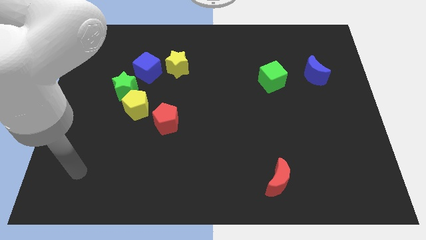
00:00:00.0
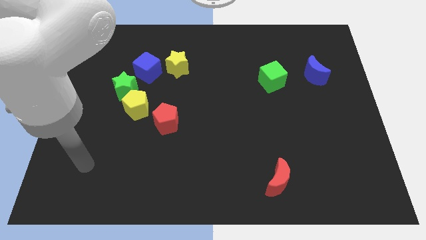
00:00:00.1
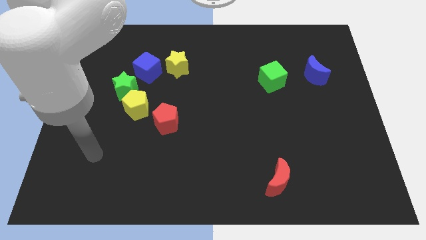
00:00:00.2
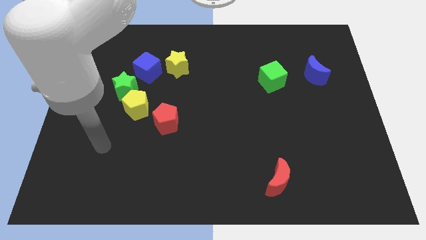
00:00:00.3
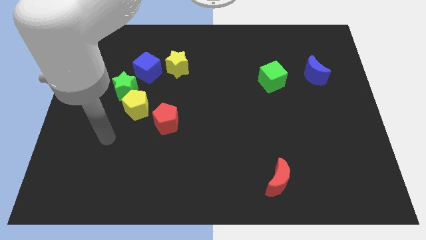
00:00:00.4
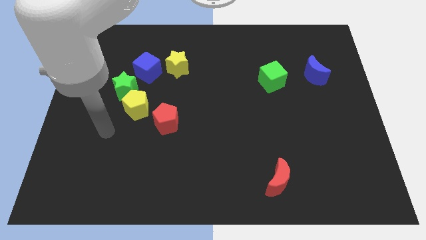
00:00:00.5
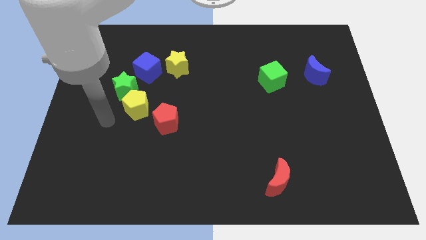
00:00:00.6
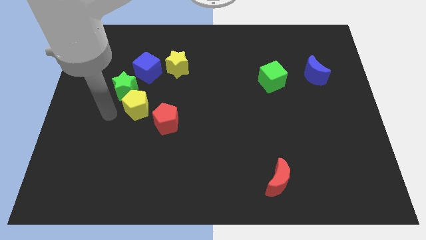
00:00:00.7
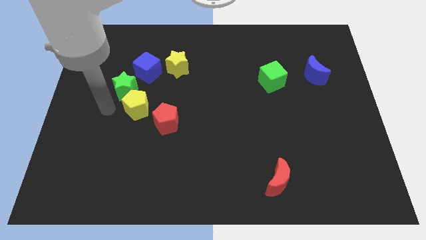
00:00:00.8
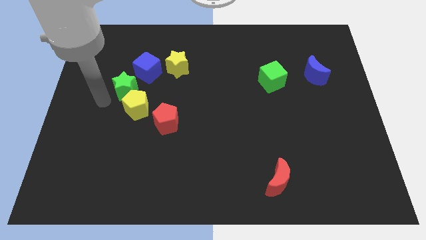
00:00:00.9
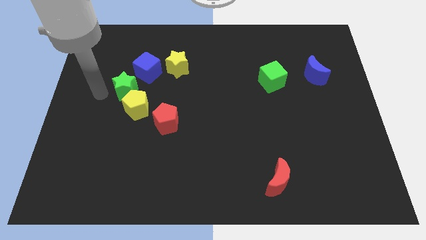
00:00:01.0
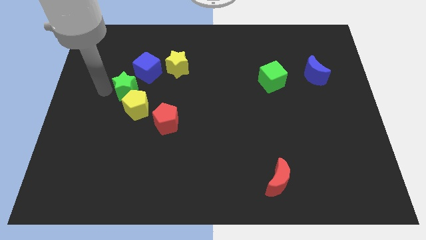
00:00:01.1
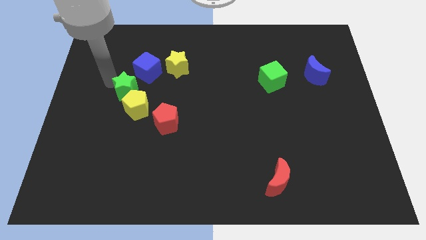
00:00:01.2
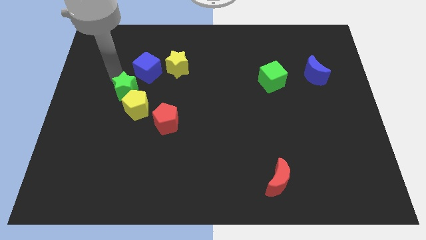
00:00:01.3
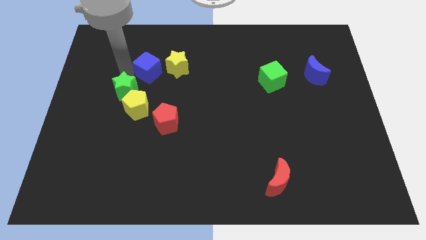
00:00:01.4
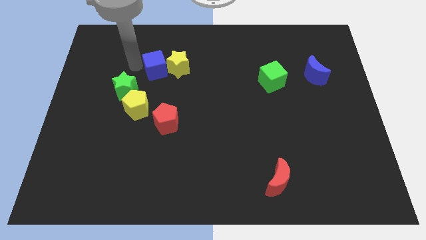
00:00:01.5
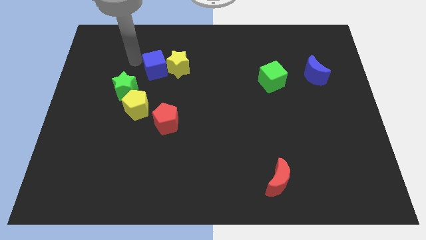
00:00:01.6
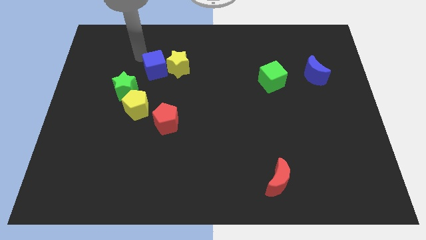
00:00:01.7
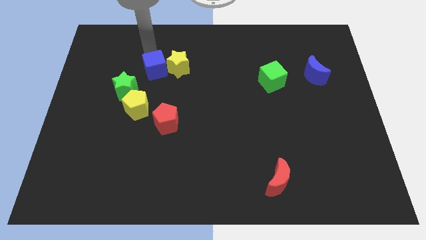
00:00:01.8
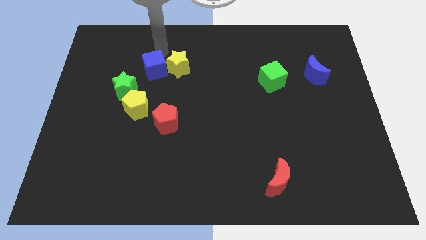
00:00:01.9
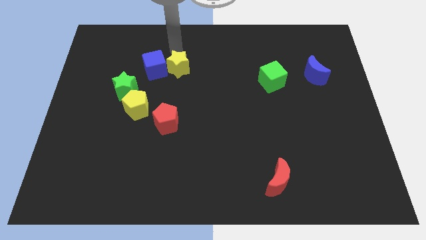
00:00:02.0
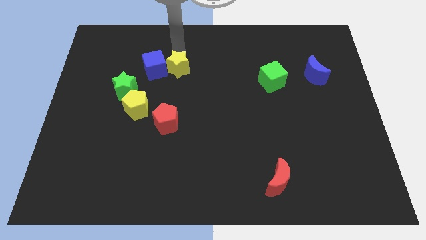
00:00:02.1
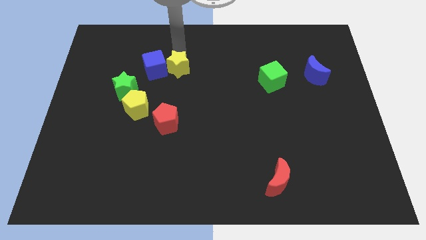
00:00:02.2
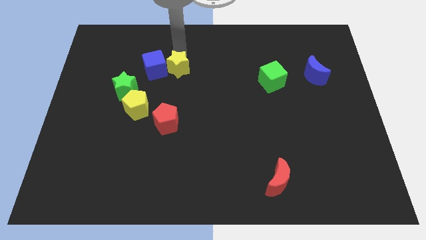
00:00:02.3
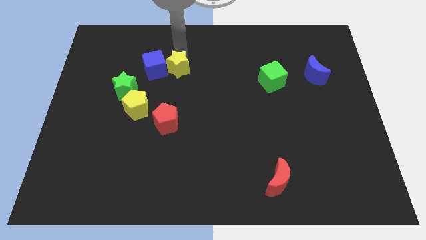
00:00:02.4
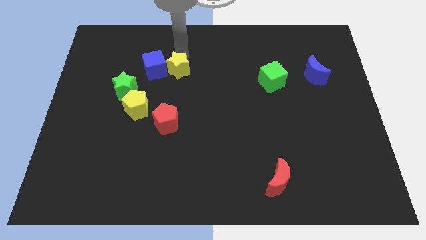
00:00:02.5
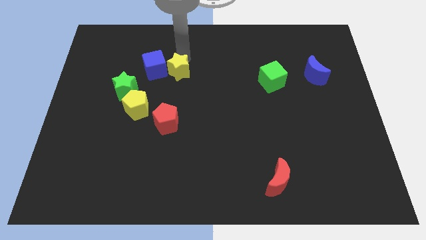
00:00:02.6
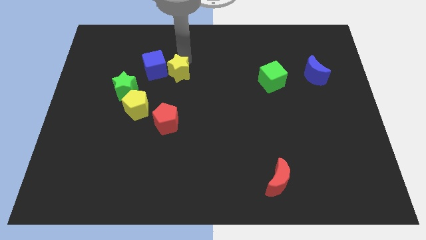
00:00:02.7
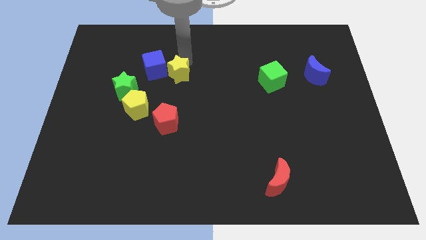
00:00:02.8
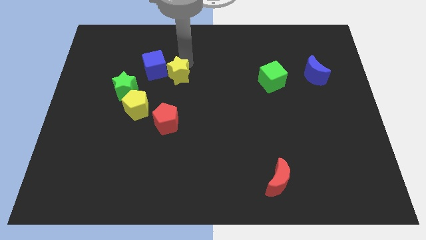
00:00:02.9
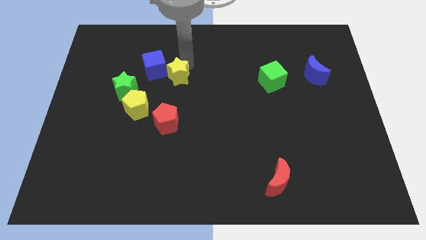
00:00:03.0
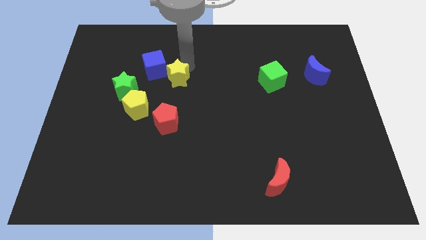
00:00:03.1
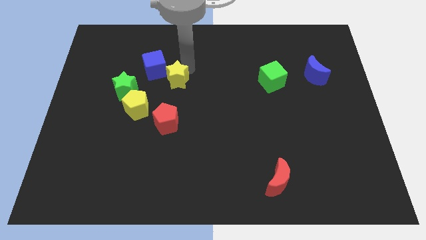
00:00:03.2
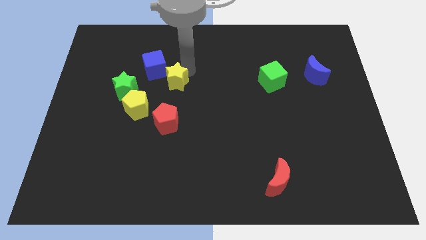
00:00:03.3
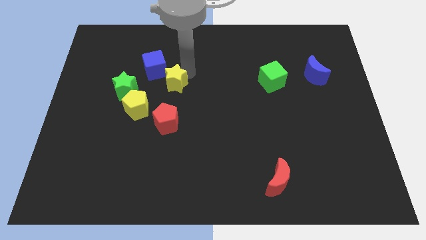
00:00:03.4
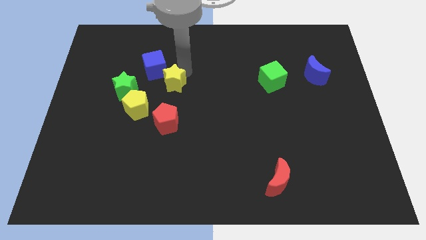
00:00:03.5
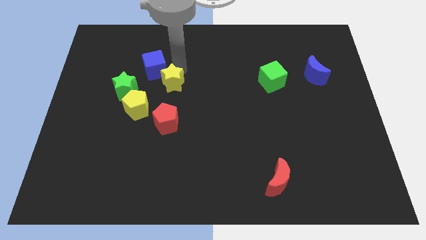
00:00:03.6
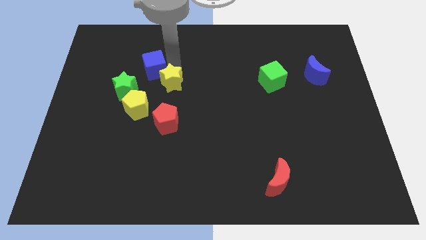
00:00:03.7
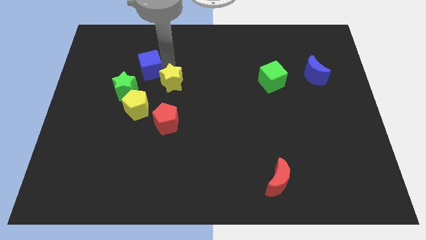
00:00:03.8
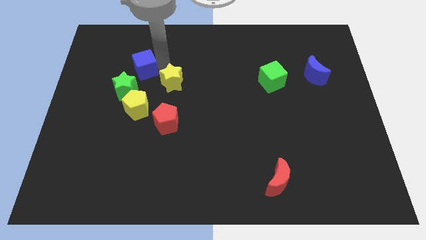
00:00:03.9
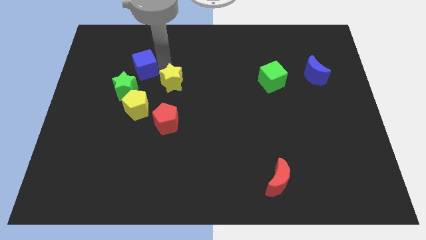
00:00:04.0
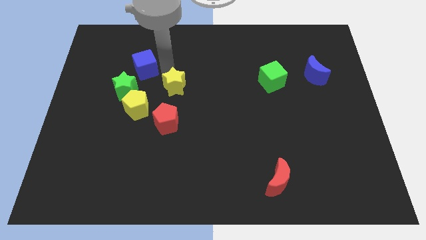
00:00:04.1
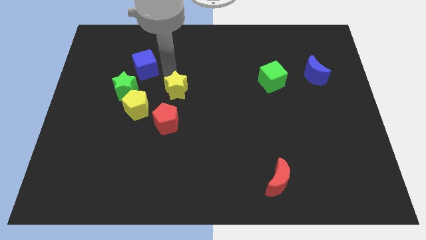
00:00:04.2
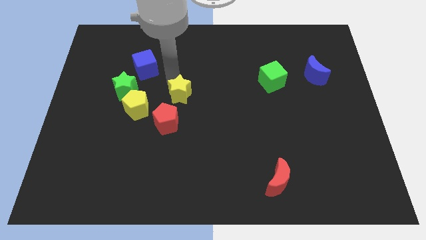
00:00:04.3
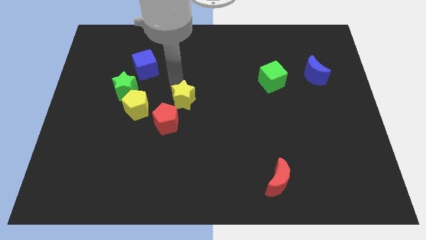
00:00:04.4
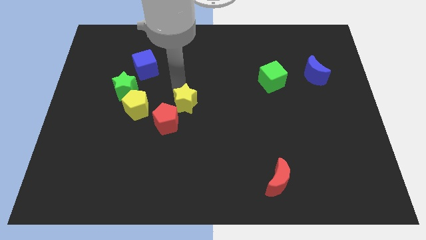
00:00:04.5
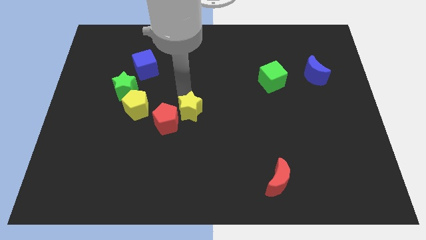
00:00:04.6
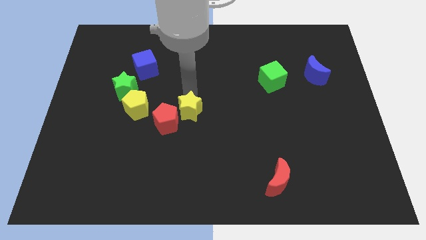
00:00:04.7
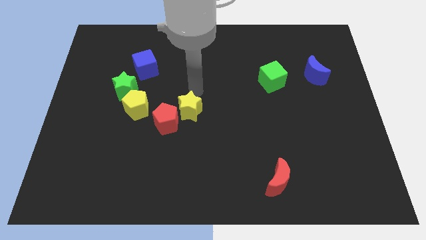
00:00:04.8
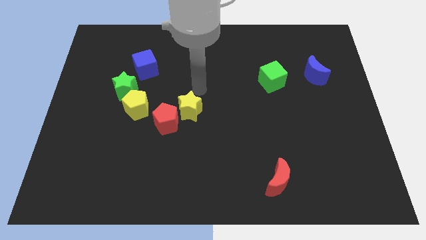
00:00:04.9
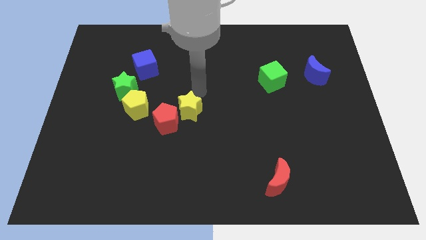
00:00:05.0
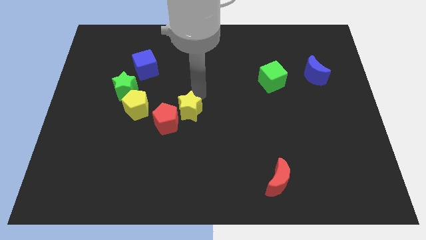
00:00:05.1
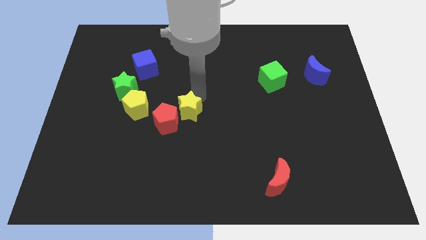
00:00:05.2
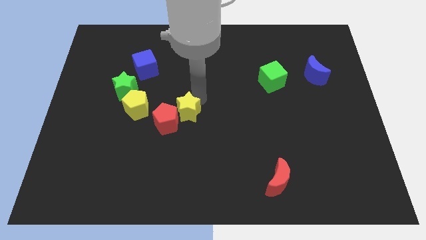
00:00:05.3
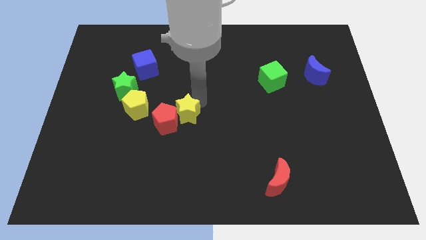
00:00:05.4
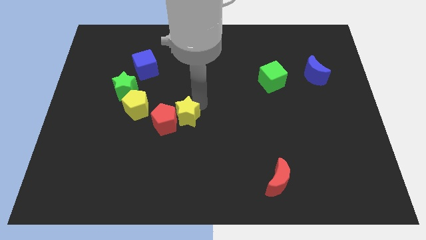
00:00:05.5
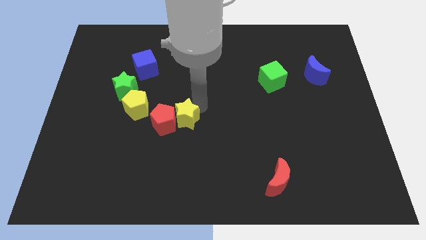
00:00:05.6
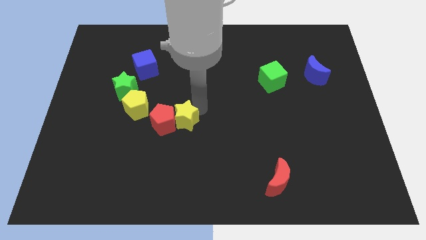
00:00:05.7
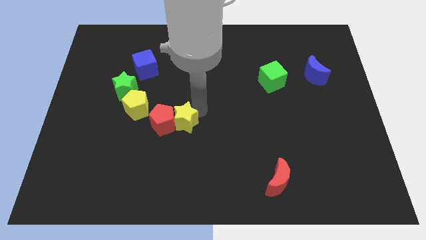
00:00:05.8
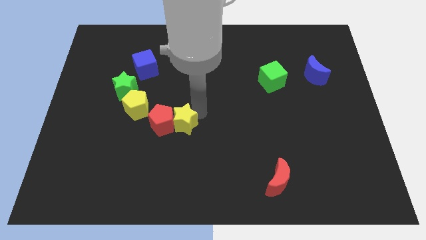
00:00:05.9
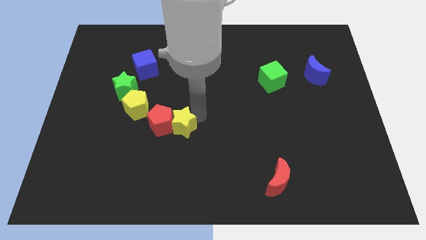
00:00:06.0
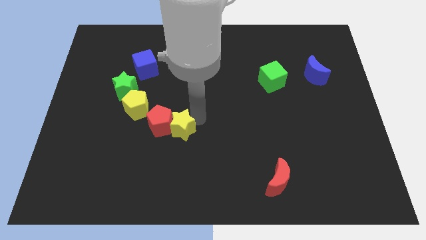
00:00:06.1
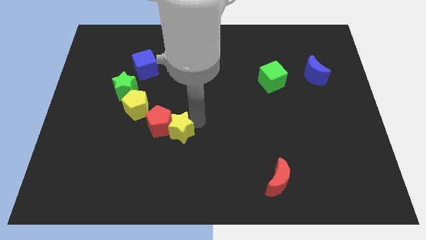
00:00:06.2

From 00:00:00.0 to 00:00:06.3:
slide the yellow star down

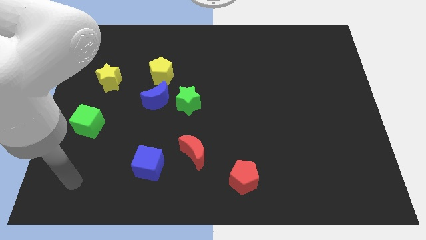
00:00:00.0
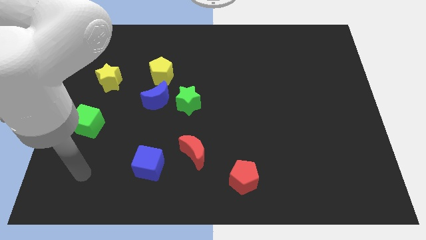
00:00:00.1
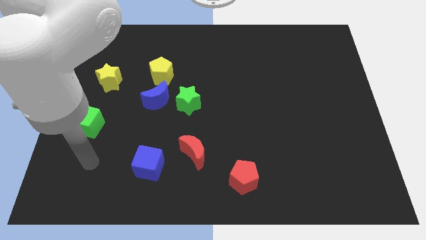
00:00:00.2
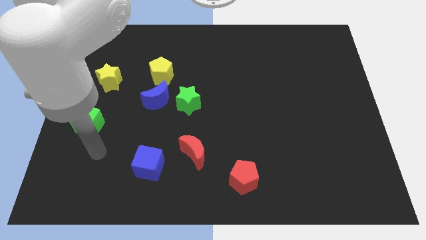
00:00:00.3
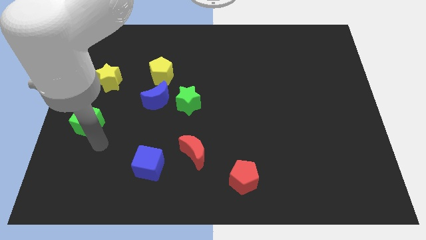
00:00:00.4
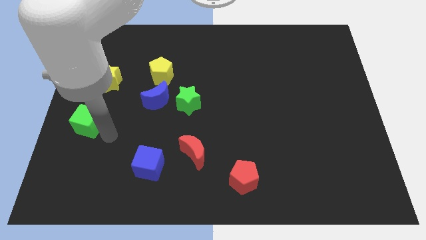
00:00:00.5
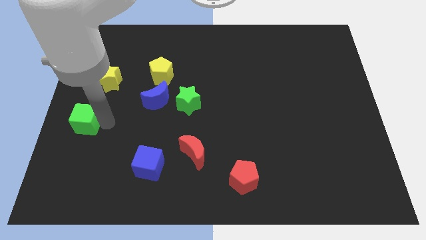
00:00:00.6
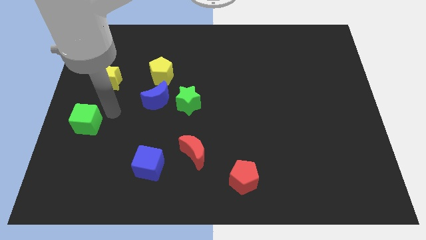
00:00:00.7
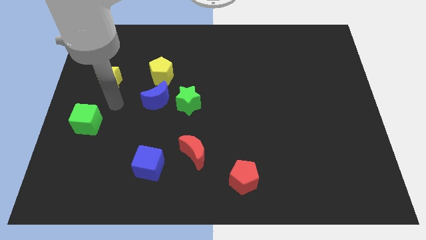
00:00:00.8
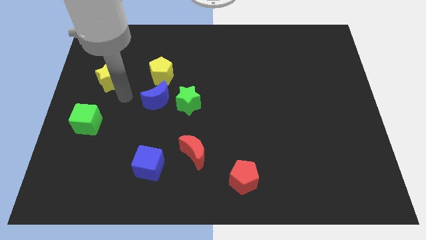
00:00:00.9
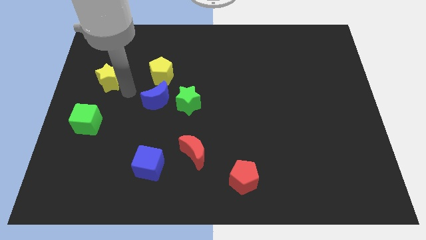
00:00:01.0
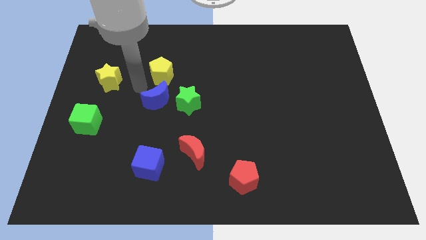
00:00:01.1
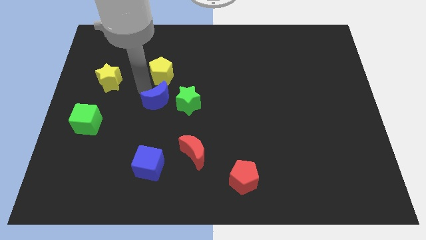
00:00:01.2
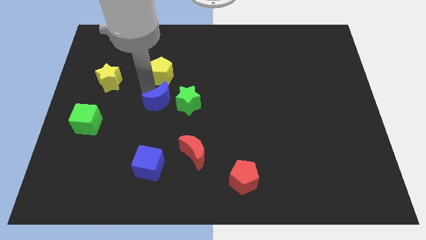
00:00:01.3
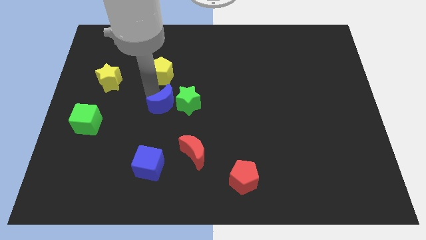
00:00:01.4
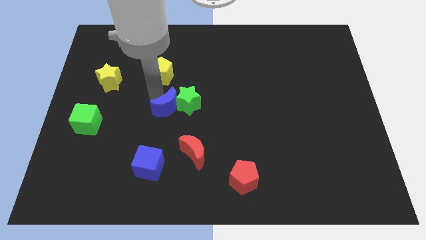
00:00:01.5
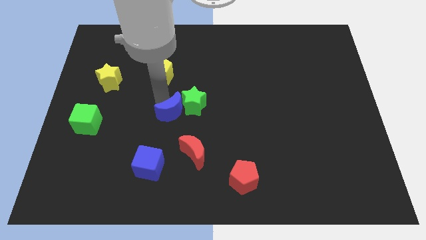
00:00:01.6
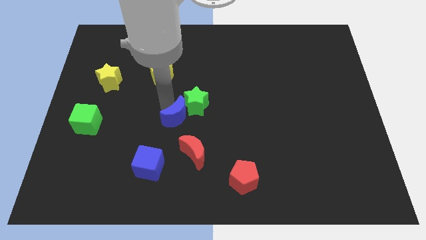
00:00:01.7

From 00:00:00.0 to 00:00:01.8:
slightly push the blue moon down and right diagonally
